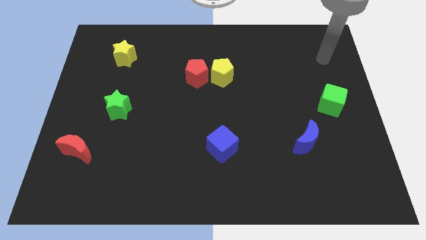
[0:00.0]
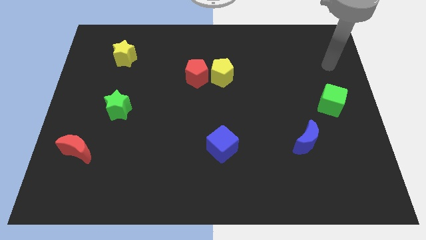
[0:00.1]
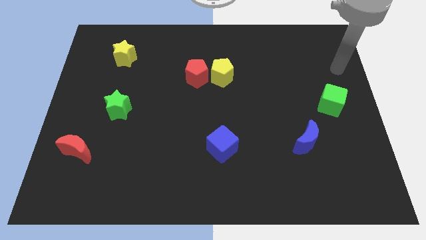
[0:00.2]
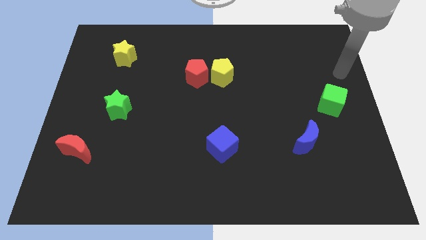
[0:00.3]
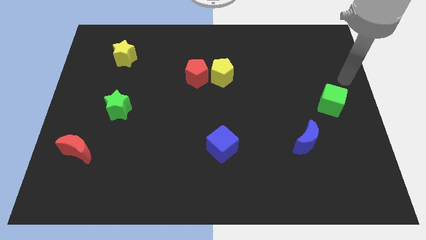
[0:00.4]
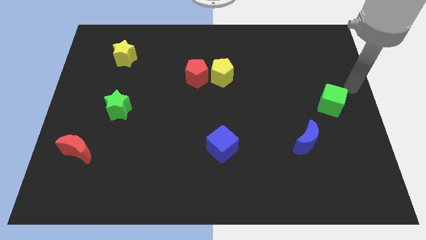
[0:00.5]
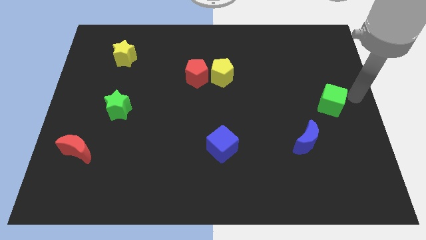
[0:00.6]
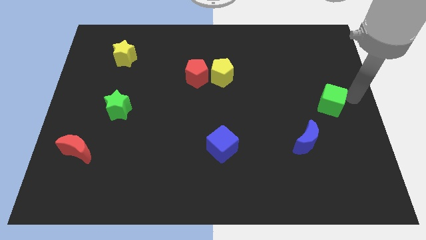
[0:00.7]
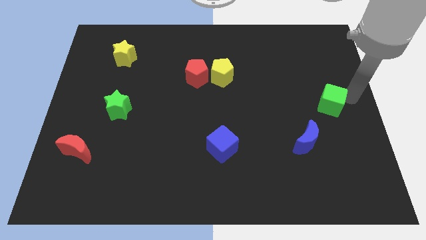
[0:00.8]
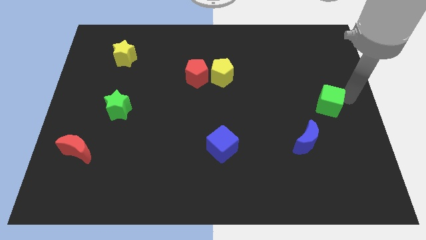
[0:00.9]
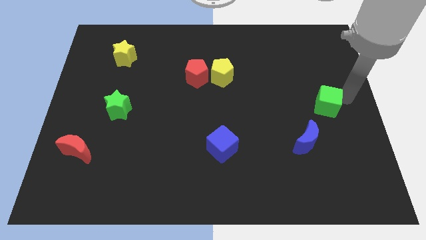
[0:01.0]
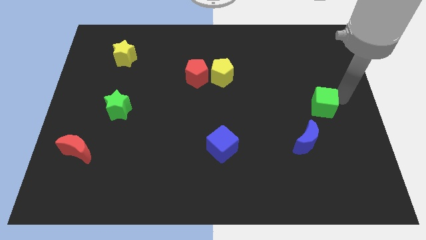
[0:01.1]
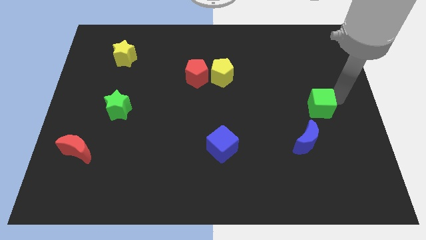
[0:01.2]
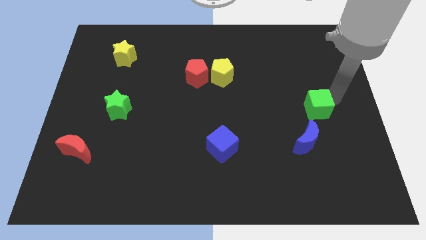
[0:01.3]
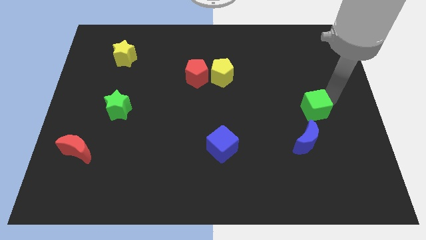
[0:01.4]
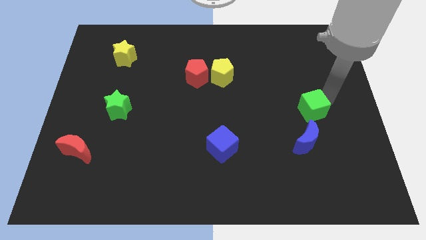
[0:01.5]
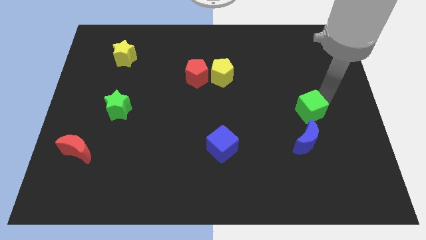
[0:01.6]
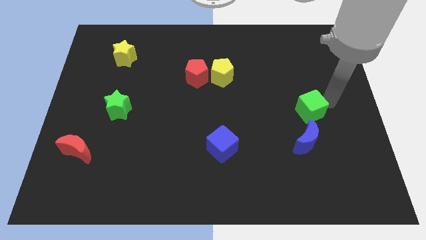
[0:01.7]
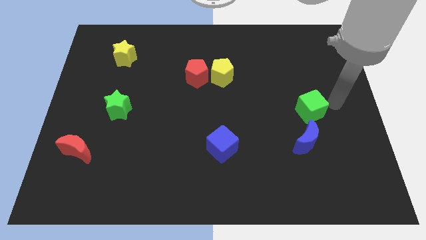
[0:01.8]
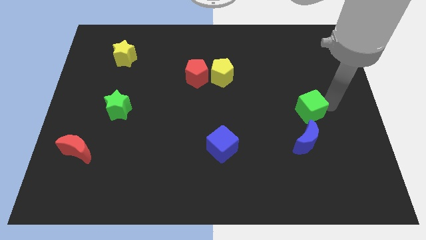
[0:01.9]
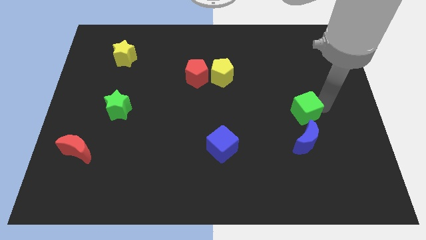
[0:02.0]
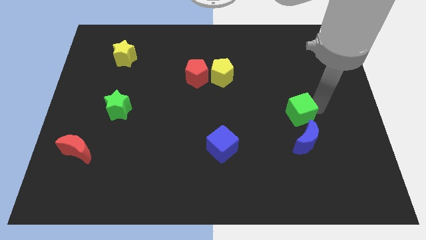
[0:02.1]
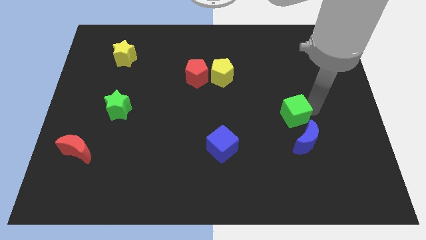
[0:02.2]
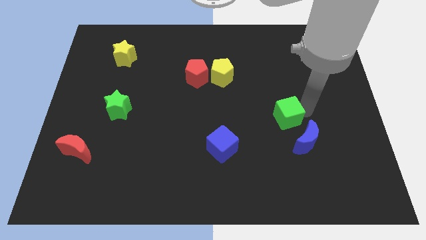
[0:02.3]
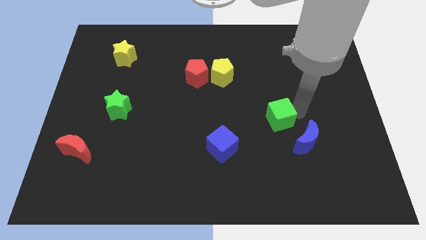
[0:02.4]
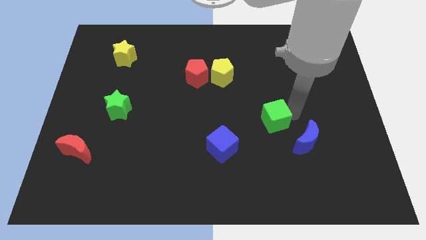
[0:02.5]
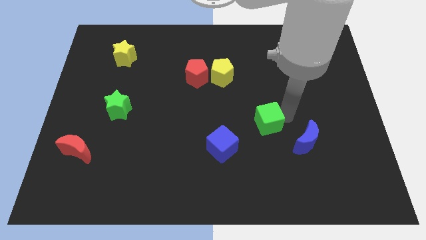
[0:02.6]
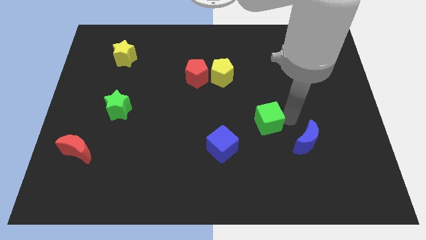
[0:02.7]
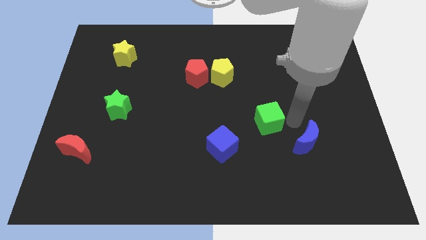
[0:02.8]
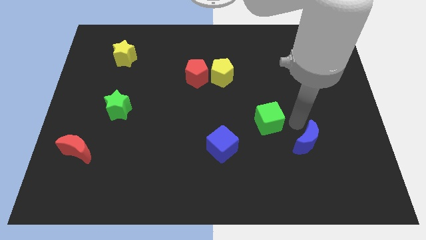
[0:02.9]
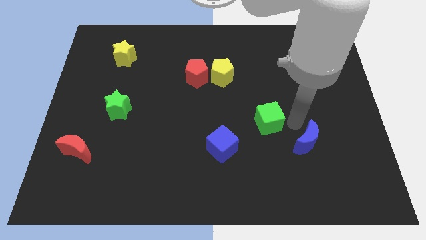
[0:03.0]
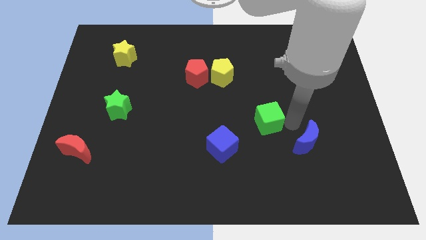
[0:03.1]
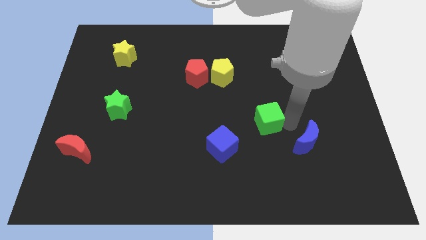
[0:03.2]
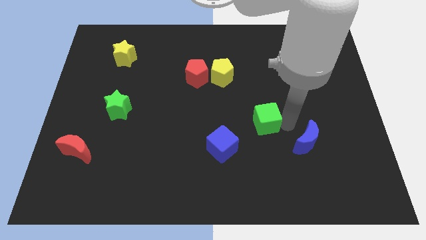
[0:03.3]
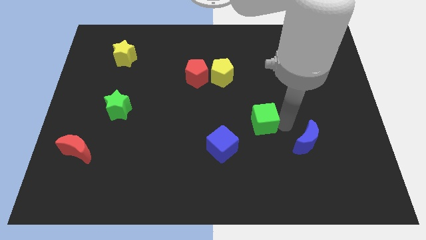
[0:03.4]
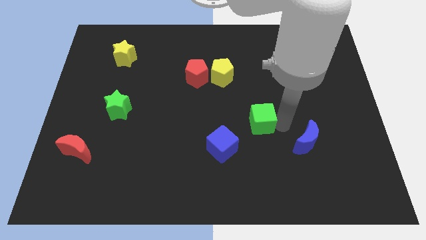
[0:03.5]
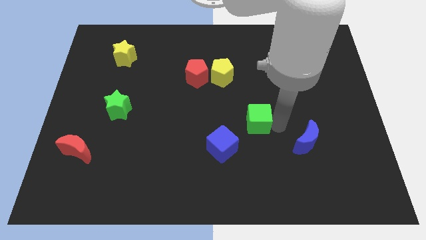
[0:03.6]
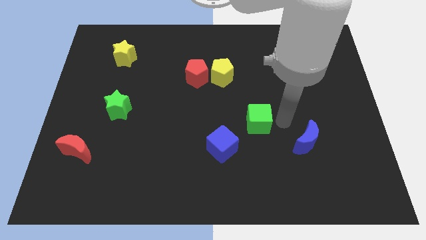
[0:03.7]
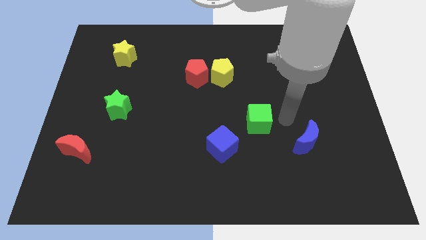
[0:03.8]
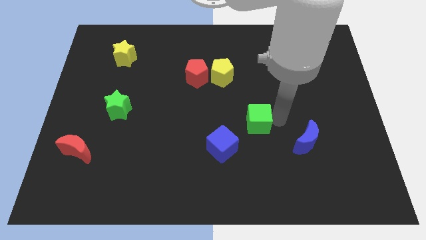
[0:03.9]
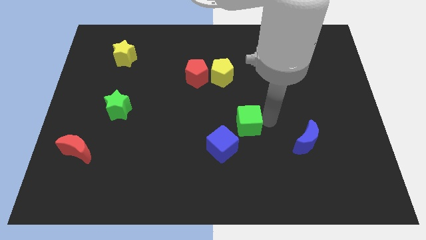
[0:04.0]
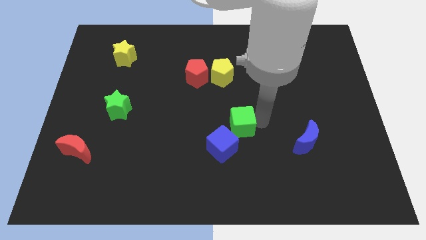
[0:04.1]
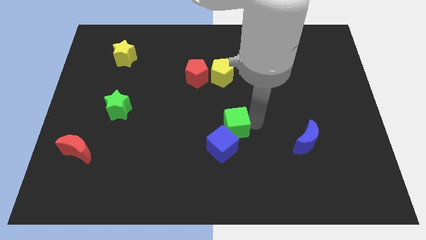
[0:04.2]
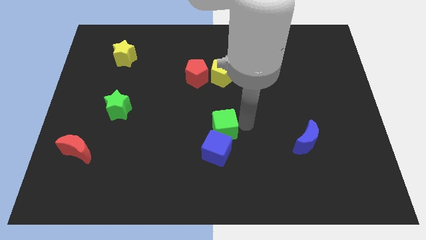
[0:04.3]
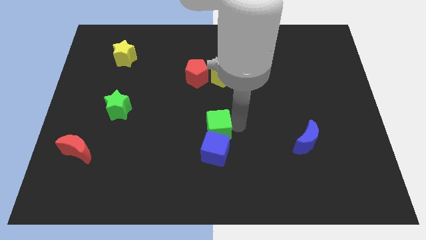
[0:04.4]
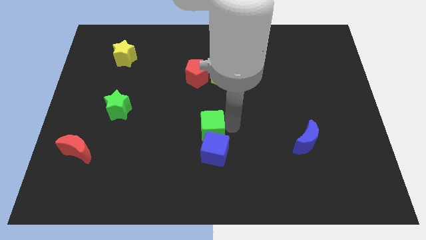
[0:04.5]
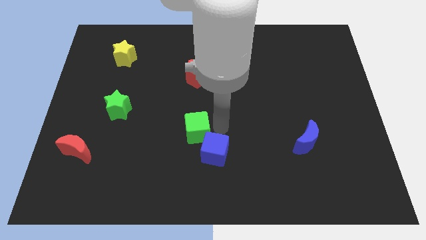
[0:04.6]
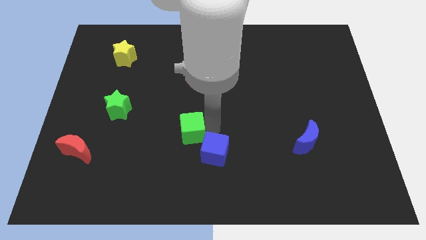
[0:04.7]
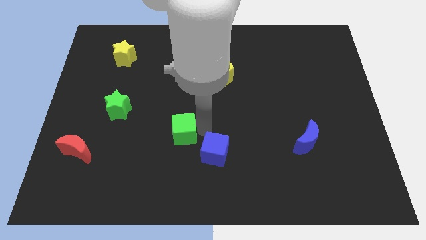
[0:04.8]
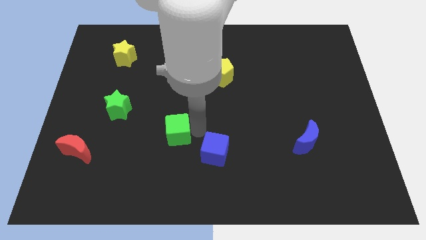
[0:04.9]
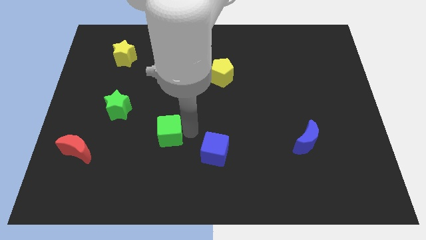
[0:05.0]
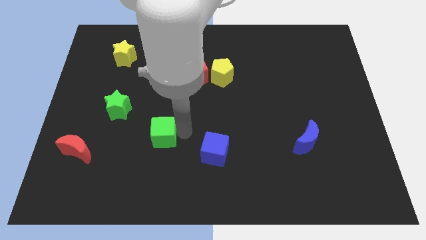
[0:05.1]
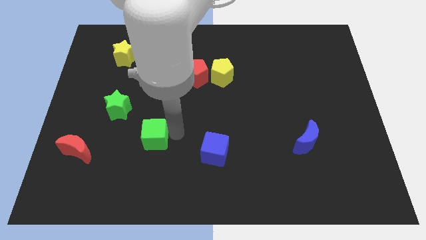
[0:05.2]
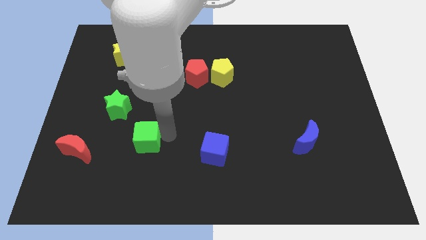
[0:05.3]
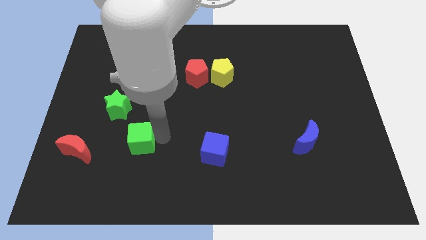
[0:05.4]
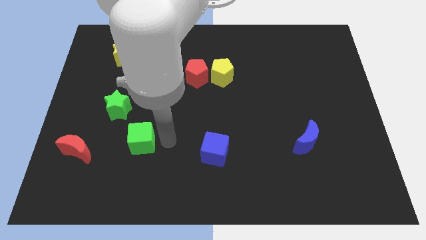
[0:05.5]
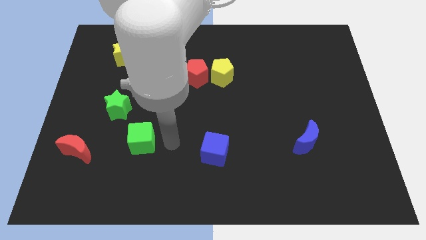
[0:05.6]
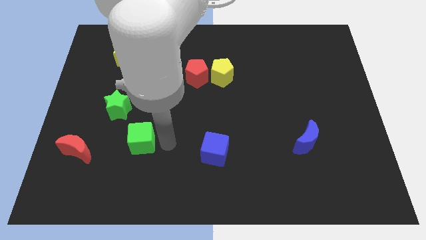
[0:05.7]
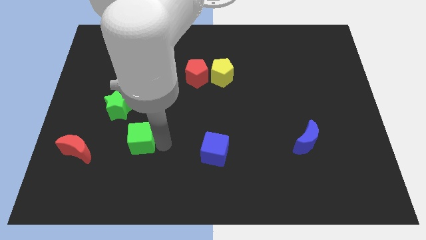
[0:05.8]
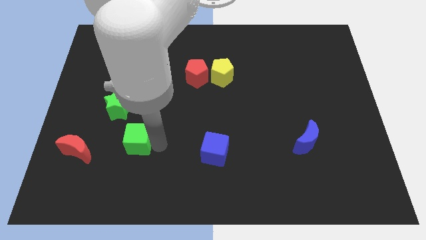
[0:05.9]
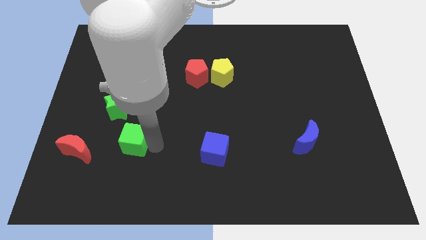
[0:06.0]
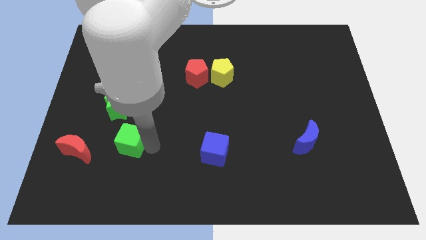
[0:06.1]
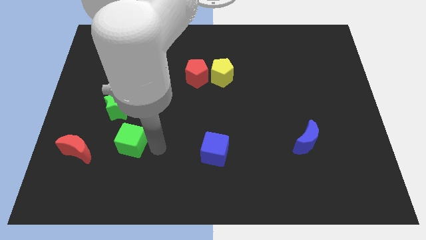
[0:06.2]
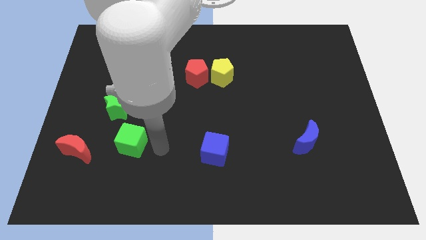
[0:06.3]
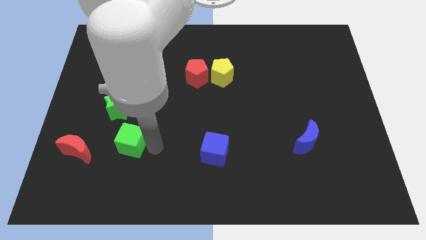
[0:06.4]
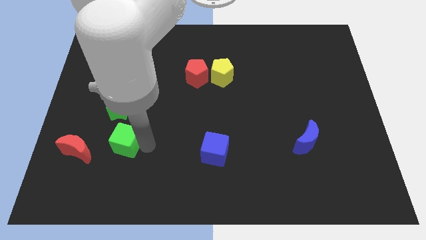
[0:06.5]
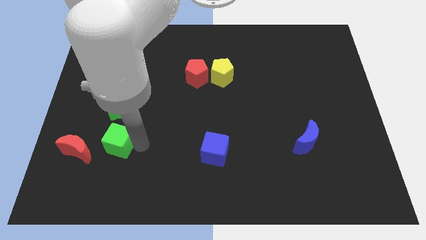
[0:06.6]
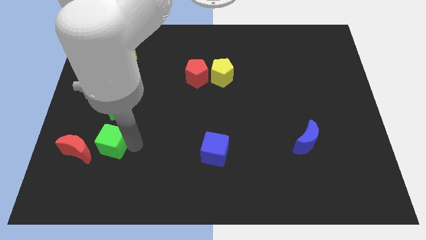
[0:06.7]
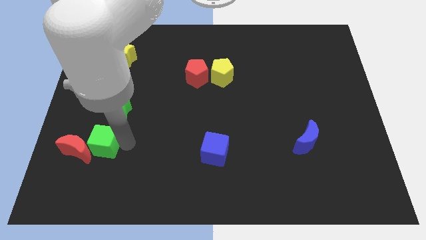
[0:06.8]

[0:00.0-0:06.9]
slide the green cube next to the red moon

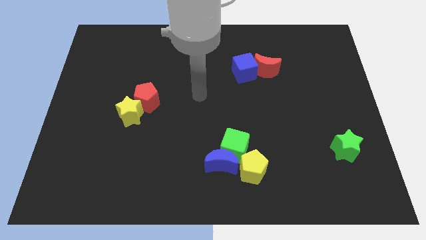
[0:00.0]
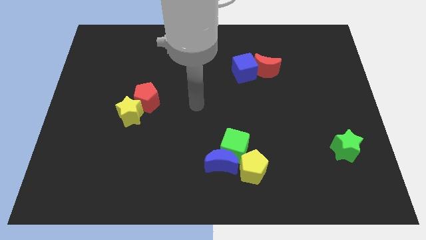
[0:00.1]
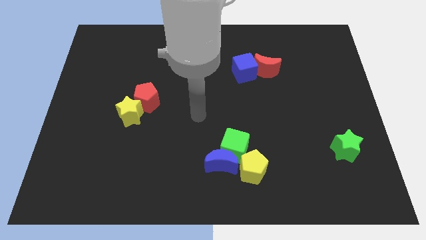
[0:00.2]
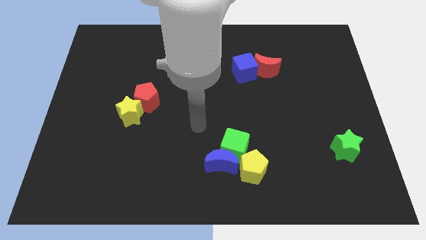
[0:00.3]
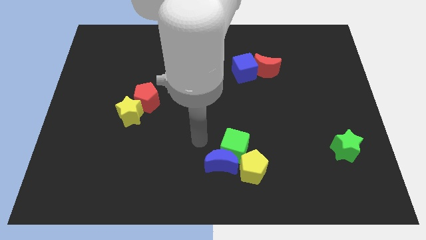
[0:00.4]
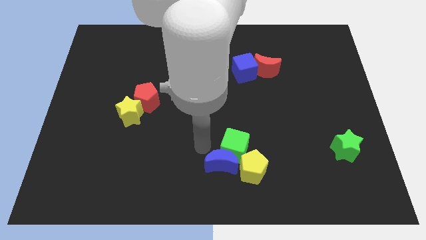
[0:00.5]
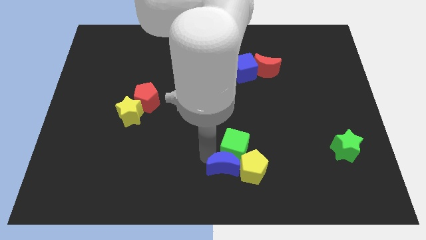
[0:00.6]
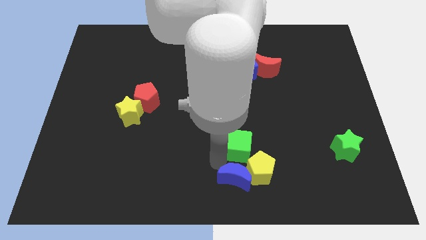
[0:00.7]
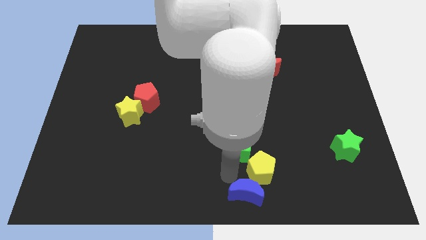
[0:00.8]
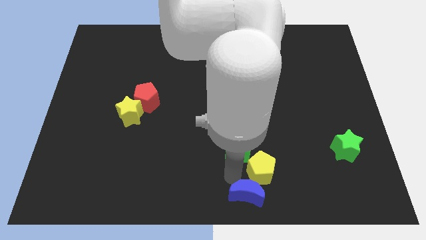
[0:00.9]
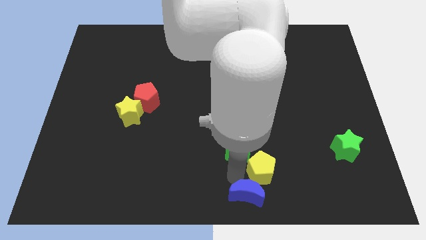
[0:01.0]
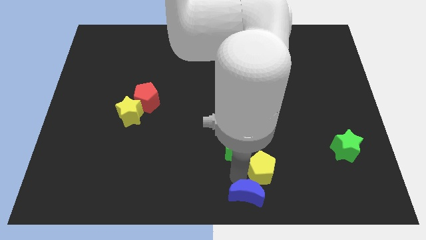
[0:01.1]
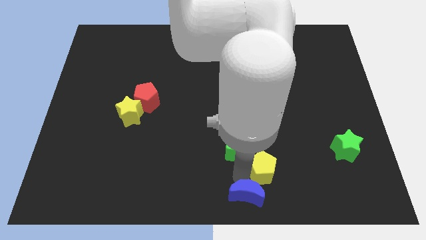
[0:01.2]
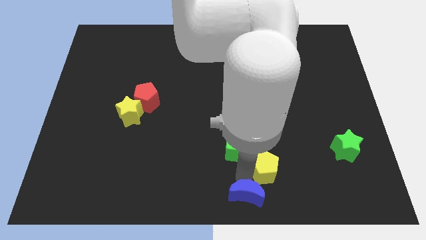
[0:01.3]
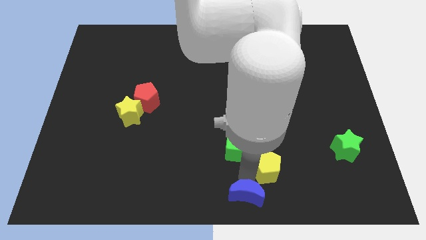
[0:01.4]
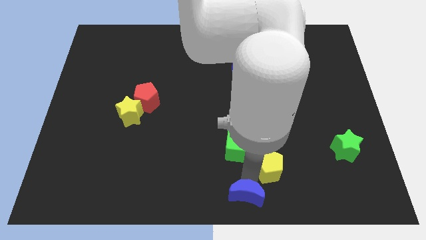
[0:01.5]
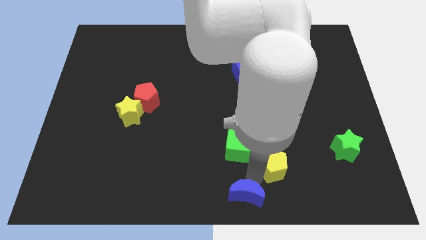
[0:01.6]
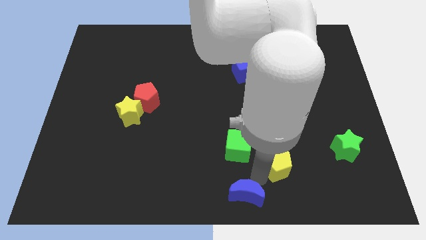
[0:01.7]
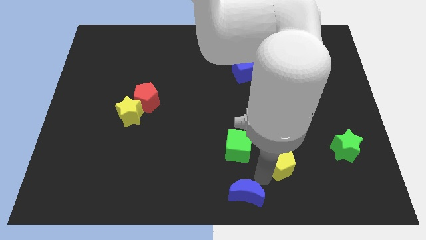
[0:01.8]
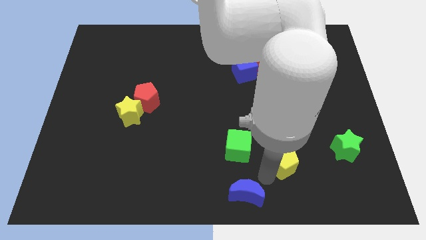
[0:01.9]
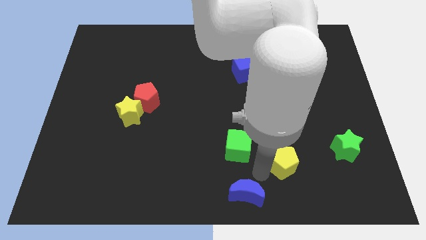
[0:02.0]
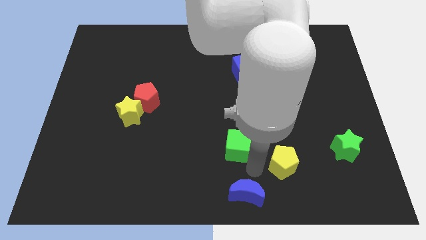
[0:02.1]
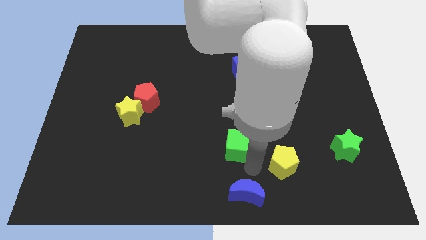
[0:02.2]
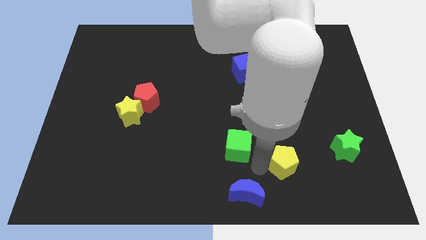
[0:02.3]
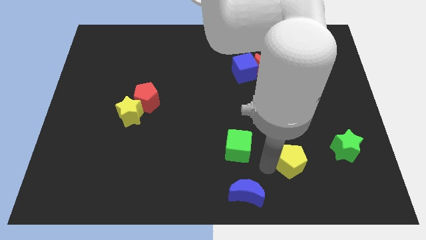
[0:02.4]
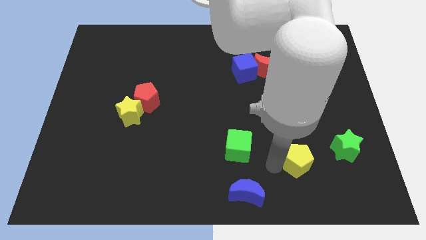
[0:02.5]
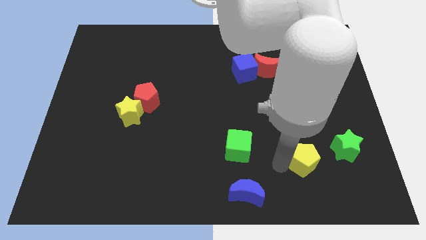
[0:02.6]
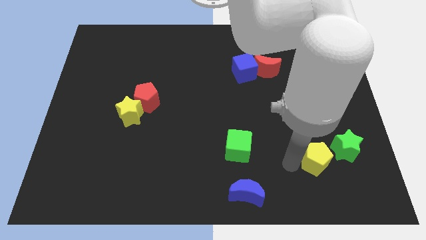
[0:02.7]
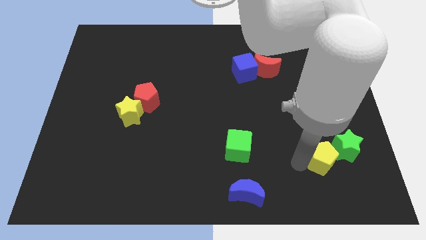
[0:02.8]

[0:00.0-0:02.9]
slide the yellow pentagon to the green star
